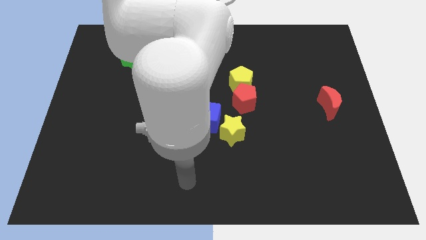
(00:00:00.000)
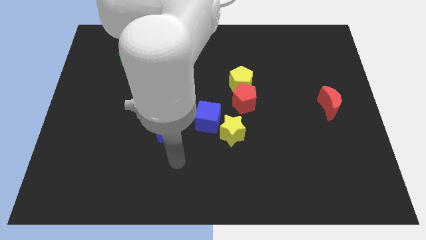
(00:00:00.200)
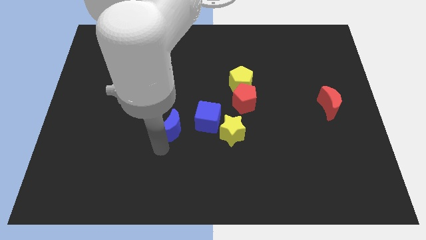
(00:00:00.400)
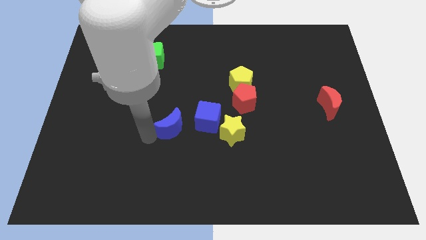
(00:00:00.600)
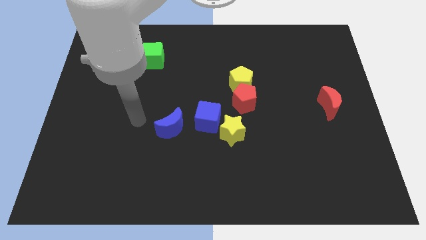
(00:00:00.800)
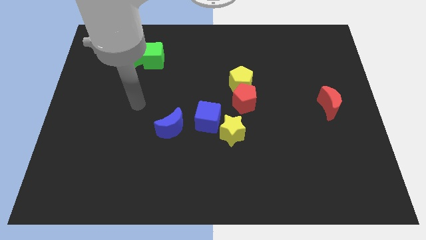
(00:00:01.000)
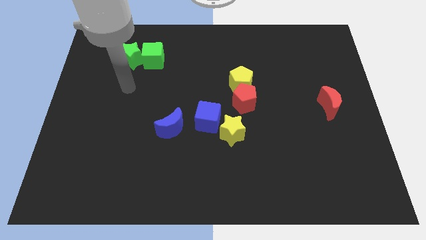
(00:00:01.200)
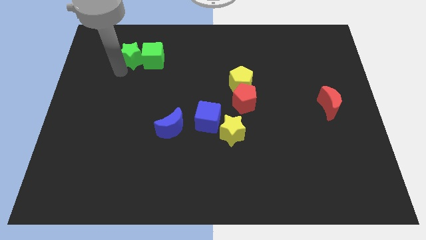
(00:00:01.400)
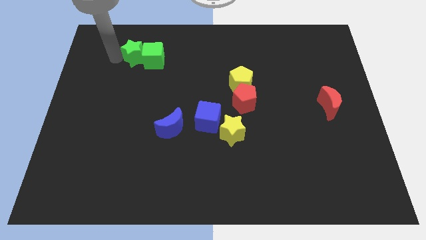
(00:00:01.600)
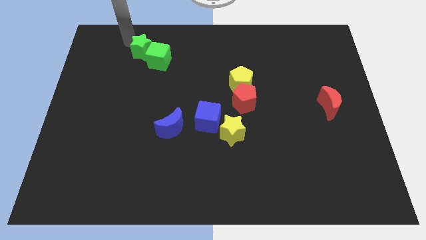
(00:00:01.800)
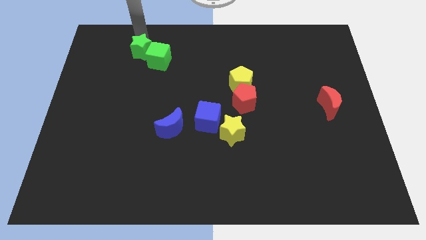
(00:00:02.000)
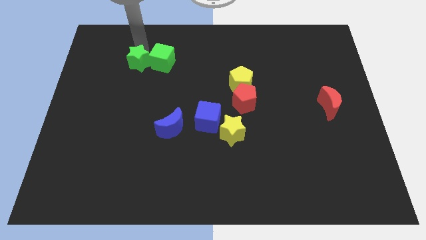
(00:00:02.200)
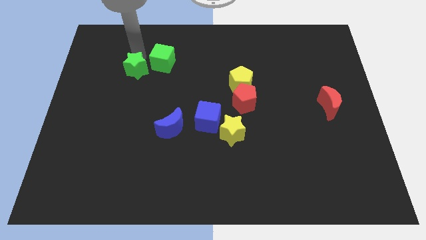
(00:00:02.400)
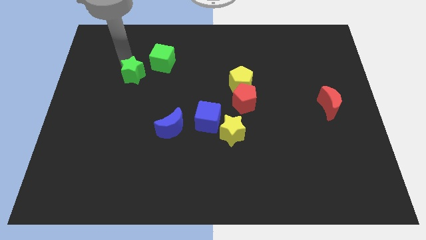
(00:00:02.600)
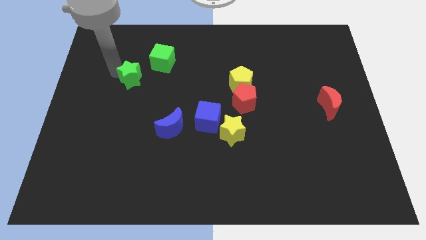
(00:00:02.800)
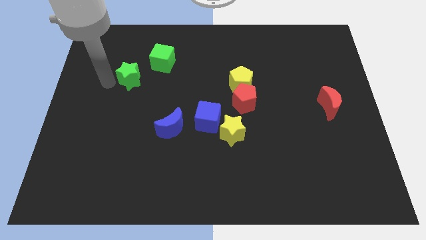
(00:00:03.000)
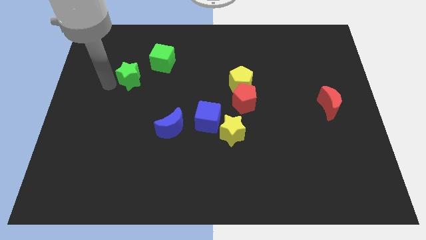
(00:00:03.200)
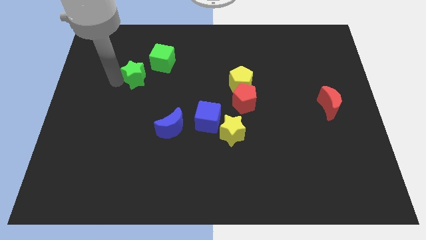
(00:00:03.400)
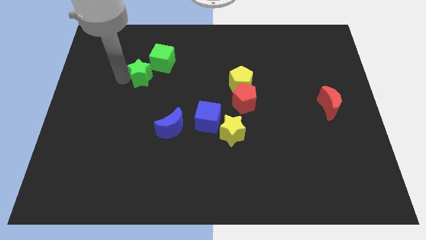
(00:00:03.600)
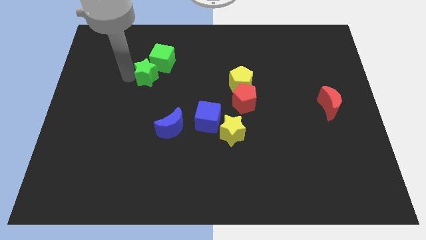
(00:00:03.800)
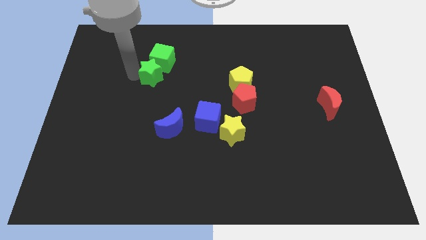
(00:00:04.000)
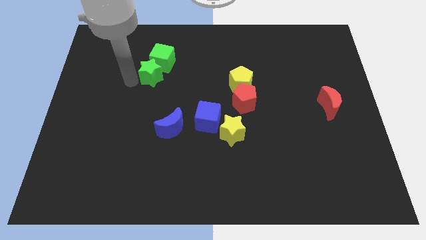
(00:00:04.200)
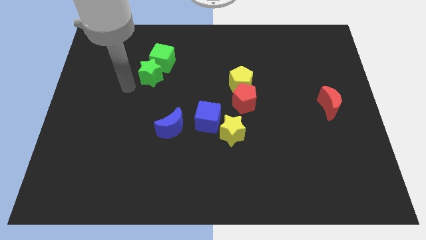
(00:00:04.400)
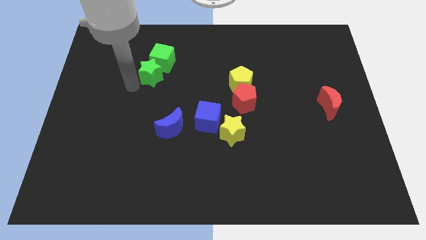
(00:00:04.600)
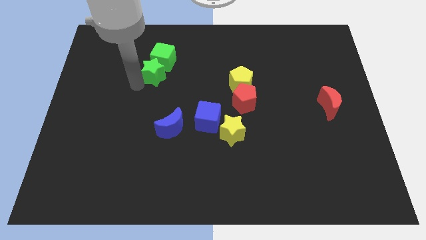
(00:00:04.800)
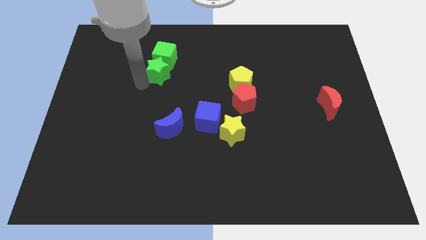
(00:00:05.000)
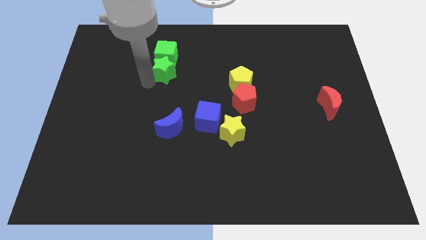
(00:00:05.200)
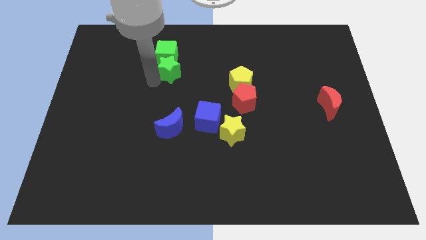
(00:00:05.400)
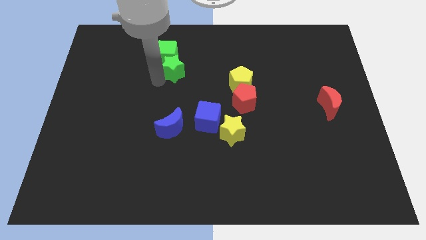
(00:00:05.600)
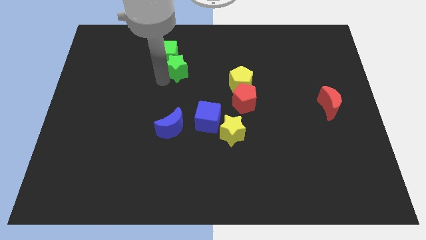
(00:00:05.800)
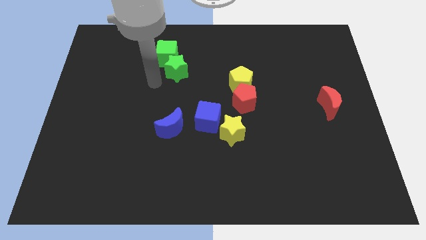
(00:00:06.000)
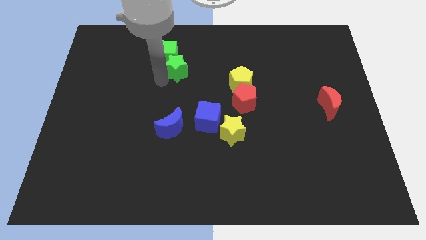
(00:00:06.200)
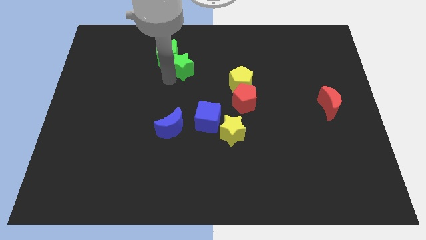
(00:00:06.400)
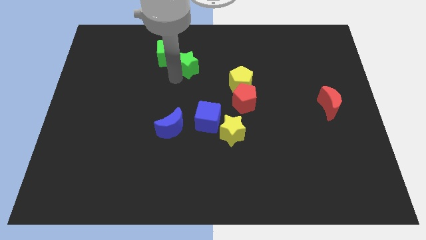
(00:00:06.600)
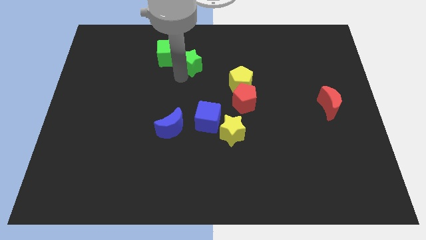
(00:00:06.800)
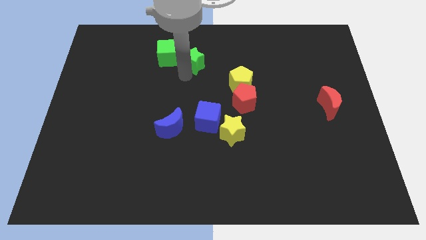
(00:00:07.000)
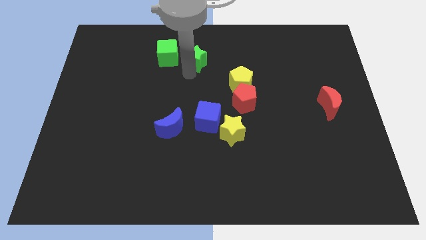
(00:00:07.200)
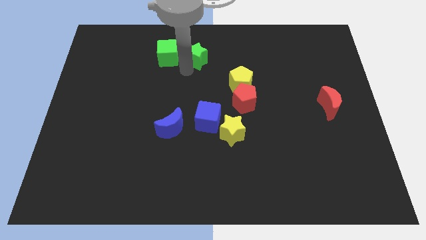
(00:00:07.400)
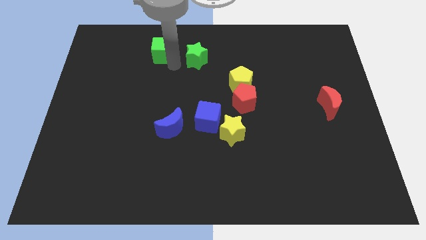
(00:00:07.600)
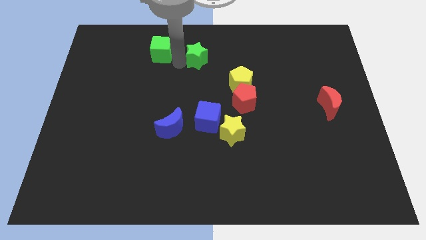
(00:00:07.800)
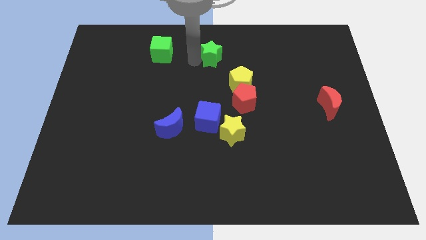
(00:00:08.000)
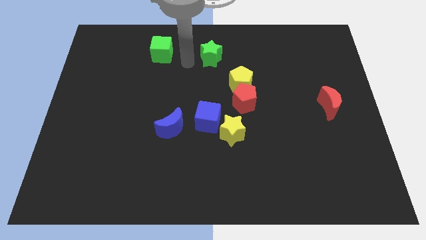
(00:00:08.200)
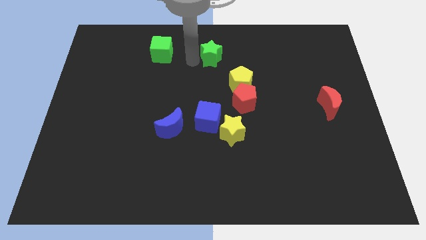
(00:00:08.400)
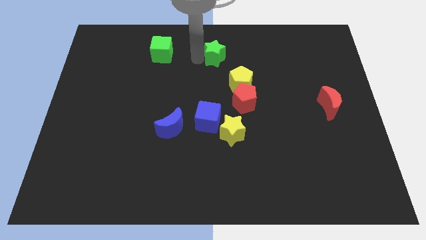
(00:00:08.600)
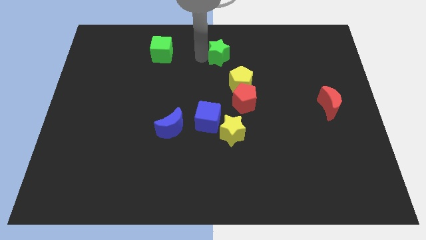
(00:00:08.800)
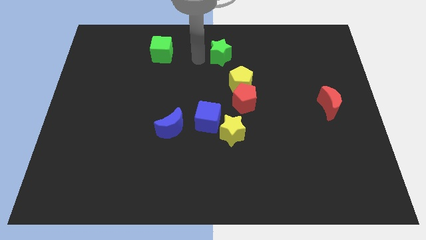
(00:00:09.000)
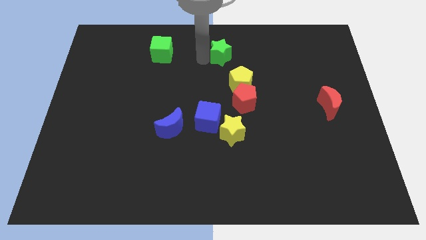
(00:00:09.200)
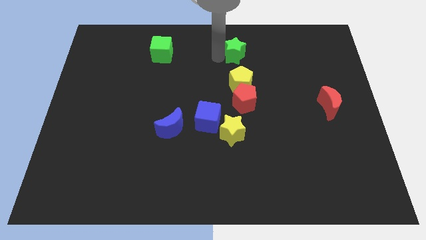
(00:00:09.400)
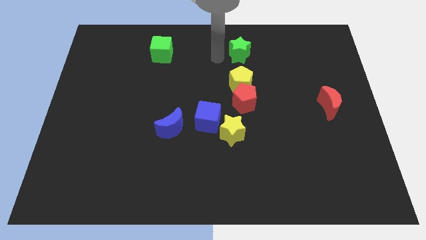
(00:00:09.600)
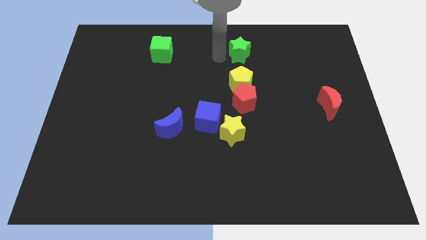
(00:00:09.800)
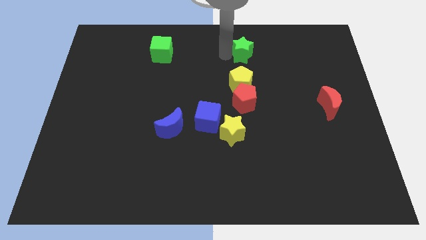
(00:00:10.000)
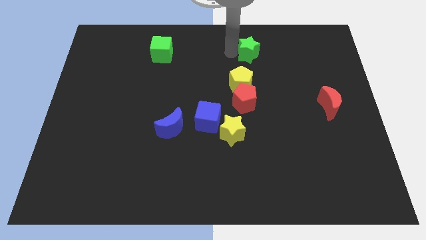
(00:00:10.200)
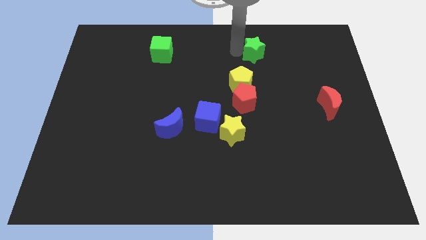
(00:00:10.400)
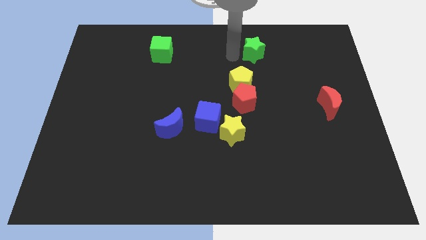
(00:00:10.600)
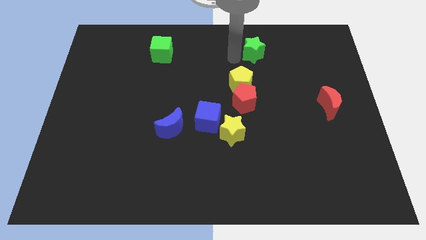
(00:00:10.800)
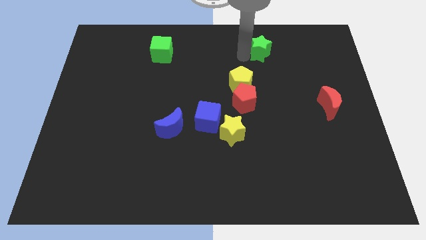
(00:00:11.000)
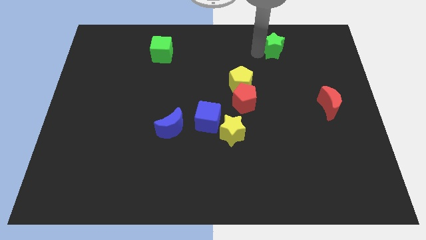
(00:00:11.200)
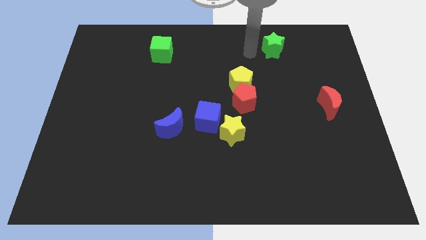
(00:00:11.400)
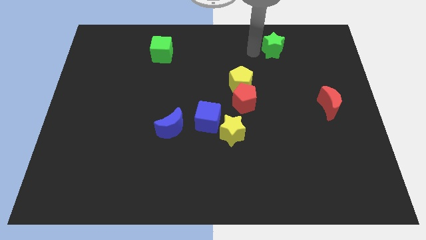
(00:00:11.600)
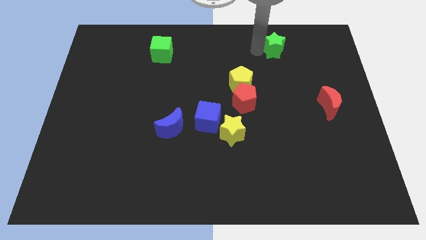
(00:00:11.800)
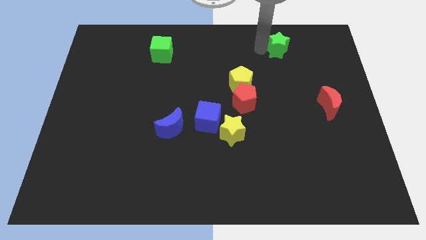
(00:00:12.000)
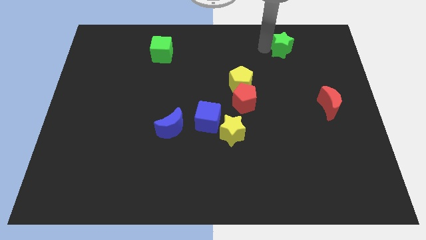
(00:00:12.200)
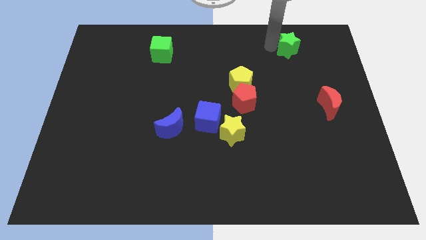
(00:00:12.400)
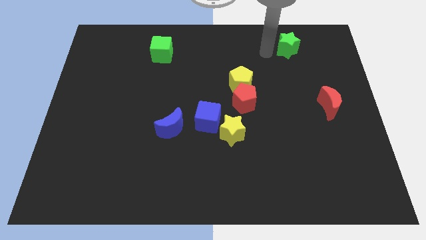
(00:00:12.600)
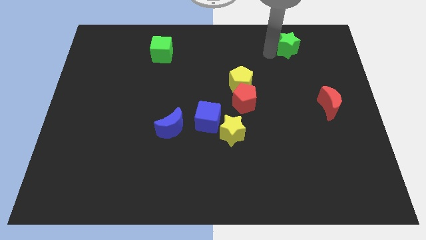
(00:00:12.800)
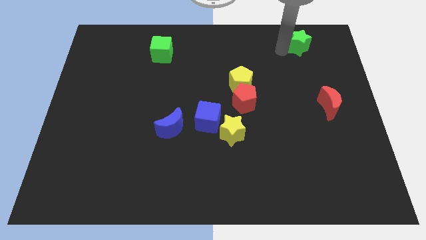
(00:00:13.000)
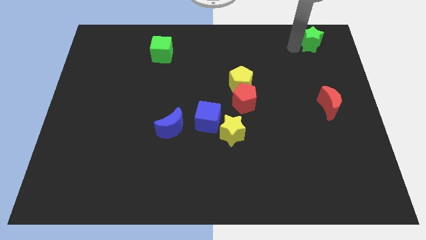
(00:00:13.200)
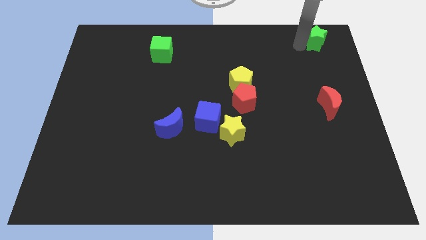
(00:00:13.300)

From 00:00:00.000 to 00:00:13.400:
move the green star to the top right corner

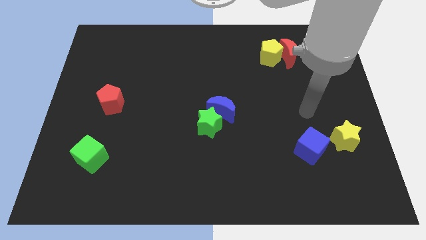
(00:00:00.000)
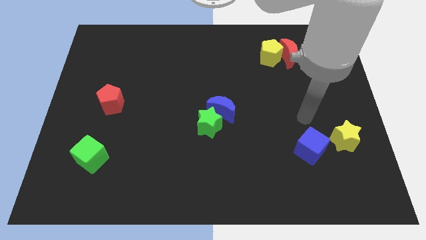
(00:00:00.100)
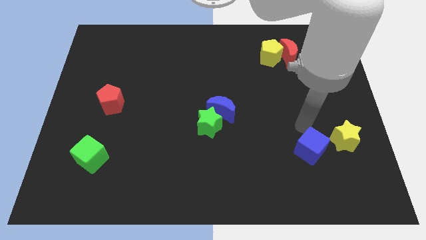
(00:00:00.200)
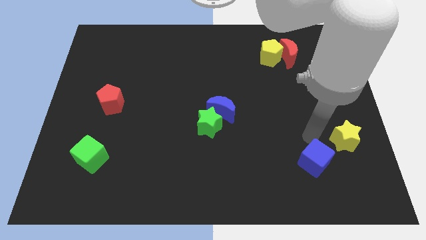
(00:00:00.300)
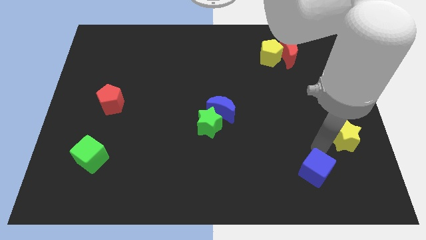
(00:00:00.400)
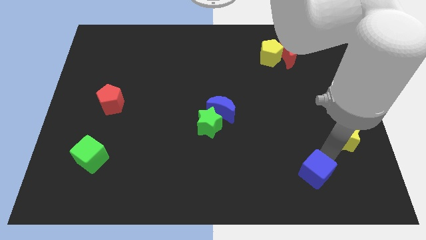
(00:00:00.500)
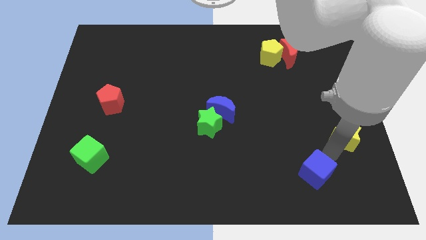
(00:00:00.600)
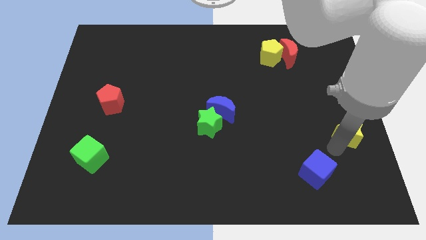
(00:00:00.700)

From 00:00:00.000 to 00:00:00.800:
push the yellow star to the right side of the board
